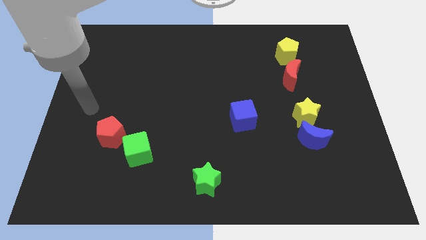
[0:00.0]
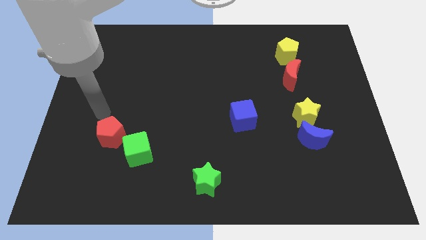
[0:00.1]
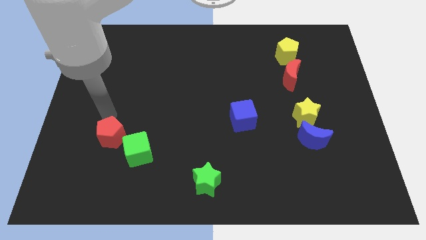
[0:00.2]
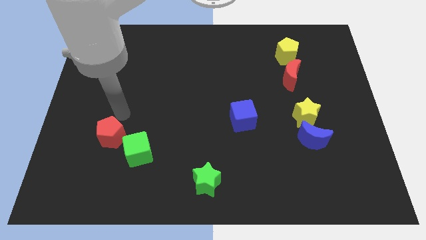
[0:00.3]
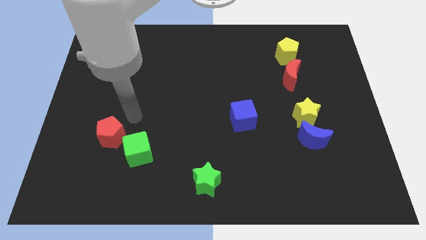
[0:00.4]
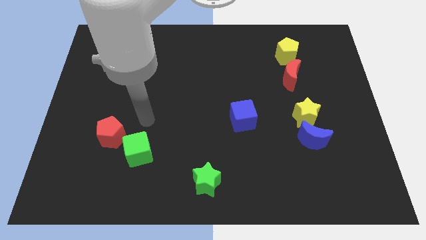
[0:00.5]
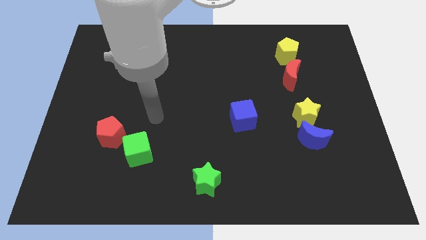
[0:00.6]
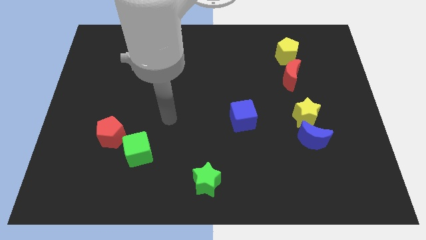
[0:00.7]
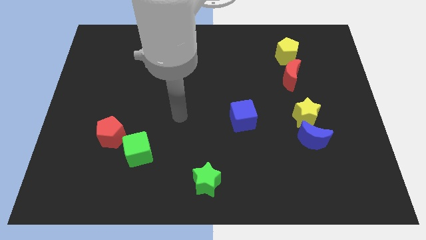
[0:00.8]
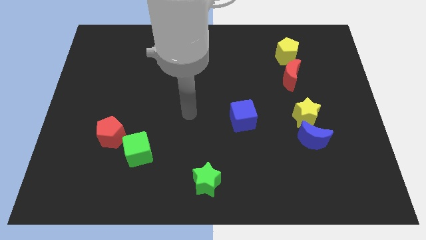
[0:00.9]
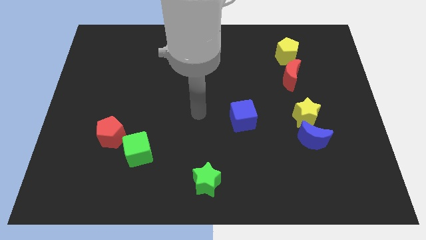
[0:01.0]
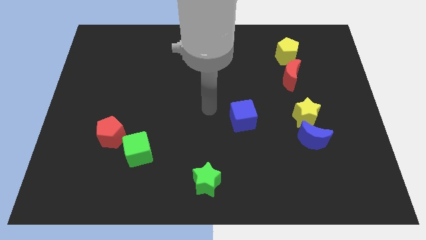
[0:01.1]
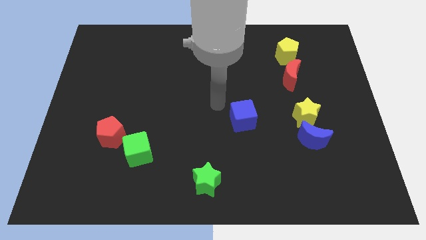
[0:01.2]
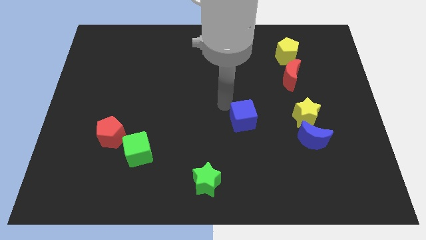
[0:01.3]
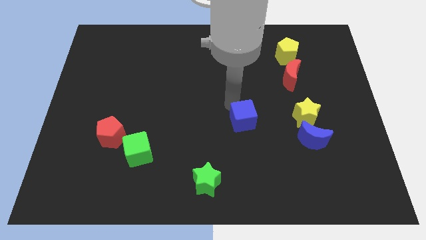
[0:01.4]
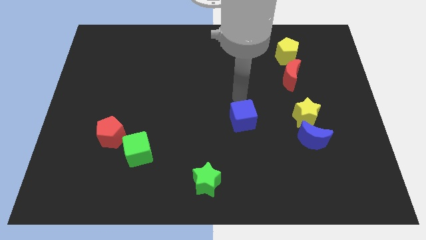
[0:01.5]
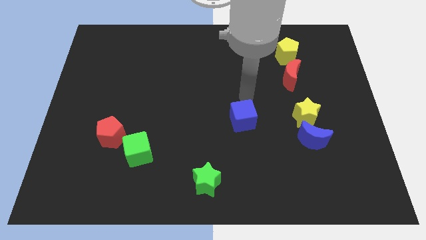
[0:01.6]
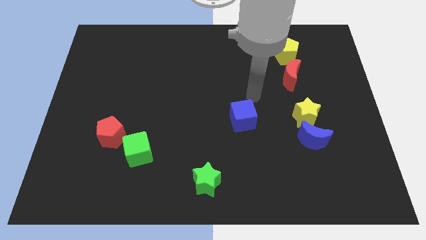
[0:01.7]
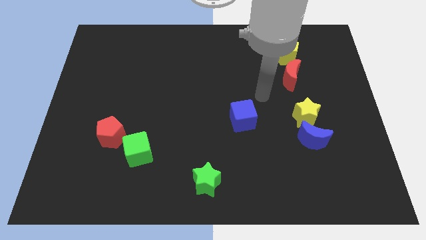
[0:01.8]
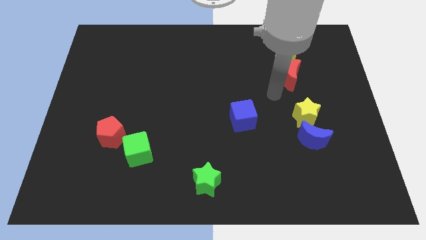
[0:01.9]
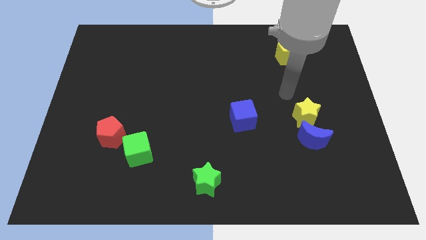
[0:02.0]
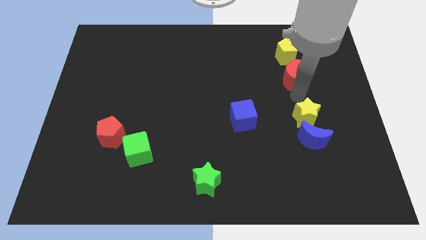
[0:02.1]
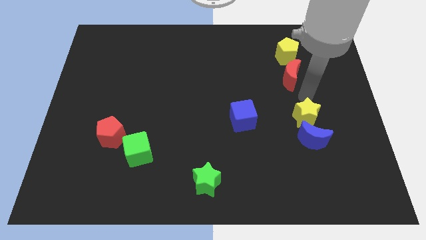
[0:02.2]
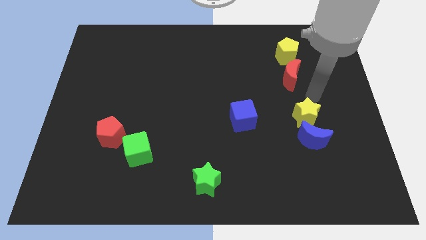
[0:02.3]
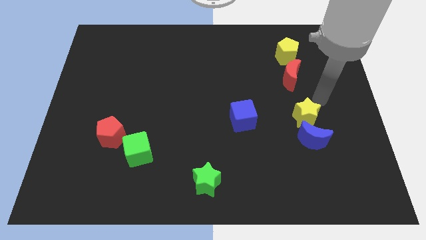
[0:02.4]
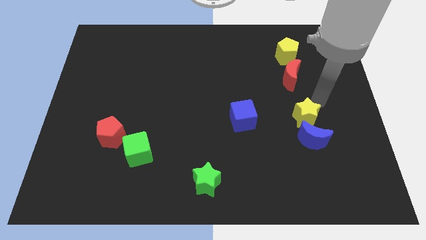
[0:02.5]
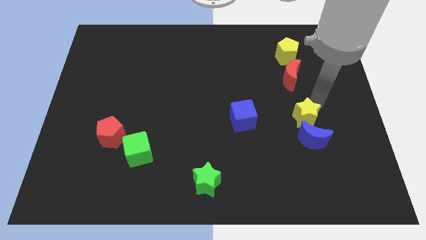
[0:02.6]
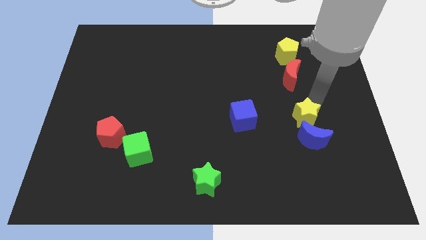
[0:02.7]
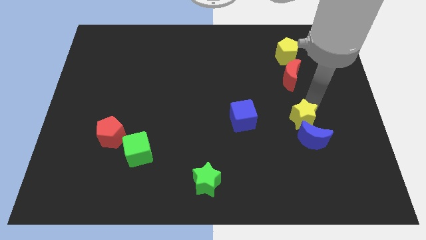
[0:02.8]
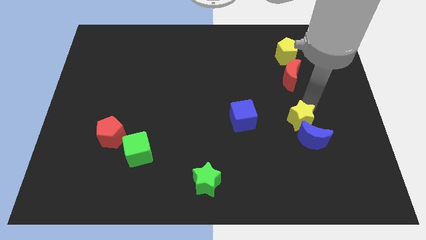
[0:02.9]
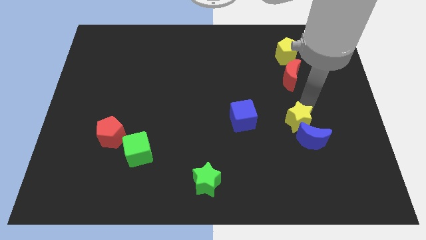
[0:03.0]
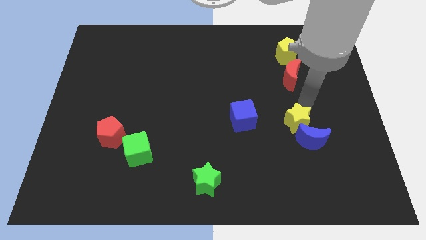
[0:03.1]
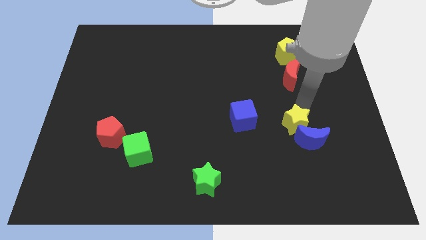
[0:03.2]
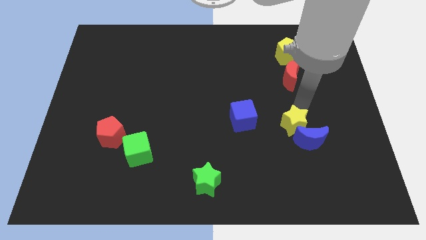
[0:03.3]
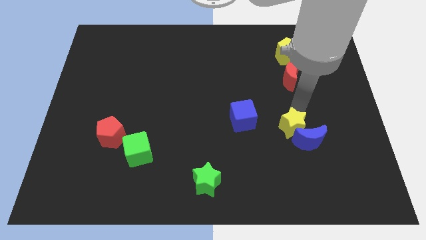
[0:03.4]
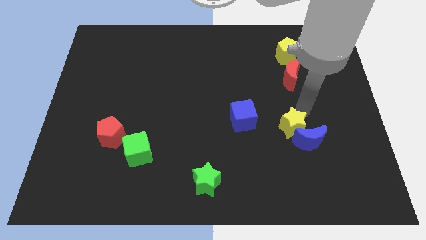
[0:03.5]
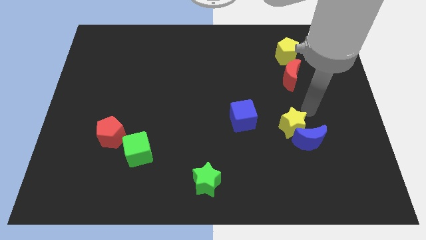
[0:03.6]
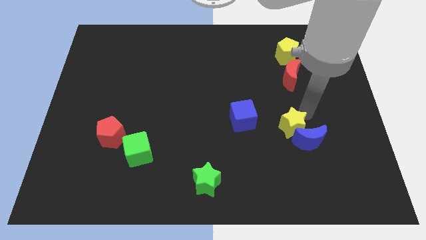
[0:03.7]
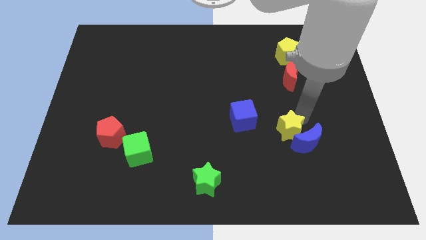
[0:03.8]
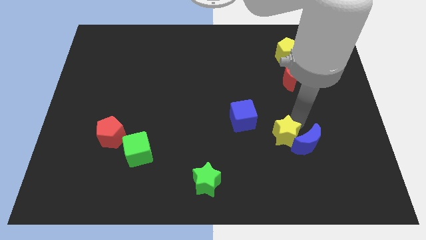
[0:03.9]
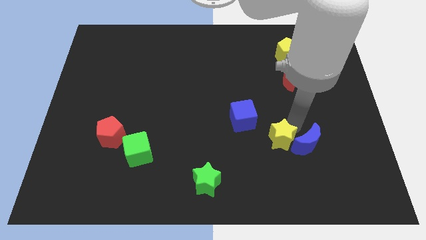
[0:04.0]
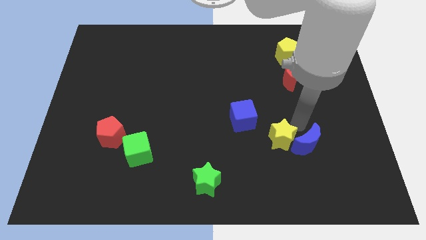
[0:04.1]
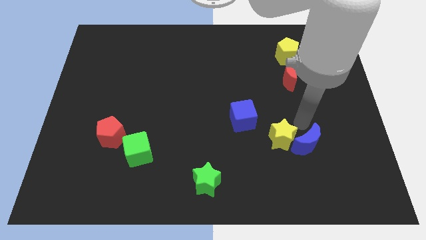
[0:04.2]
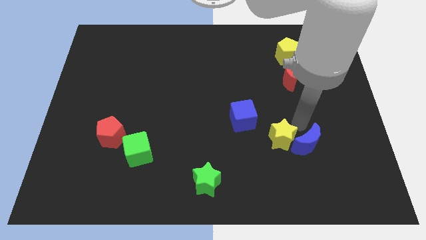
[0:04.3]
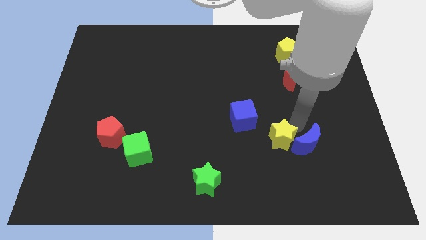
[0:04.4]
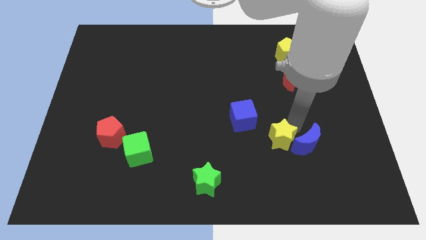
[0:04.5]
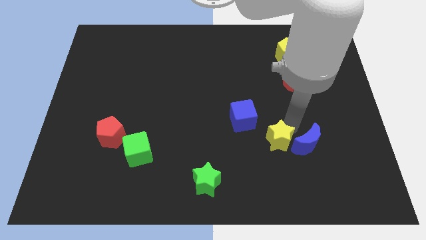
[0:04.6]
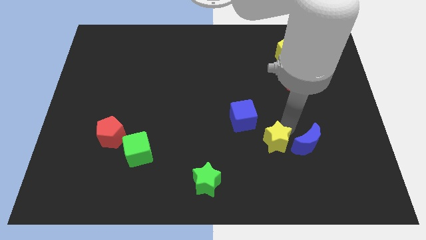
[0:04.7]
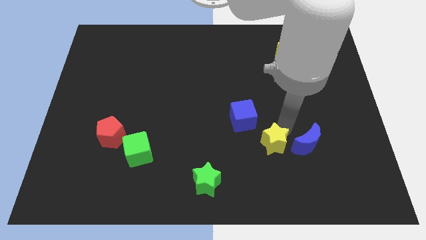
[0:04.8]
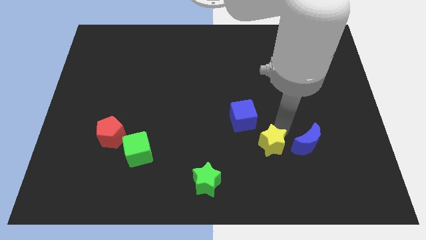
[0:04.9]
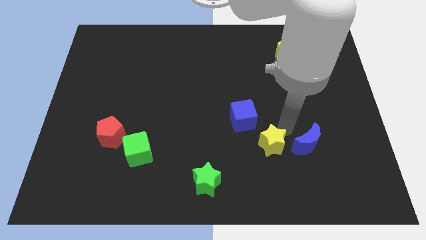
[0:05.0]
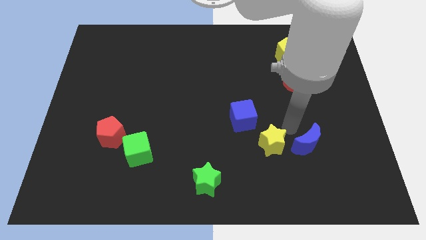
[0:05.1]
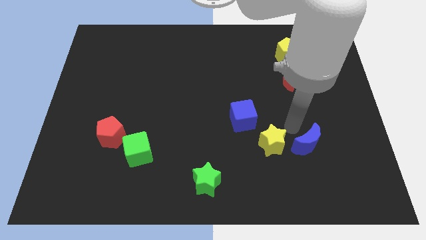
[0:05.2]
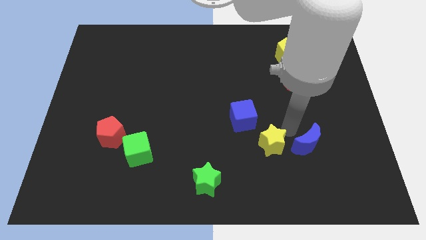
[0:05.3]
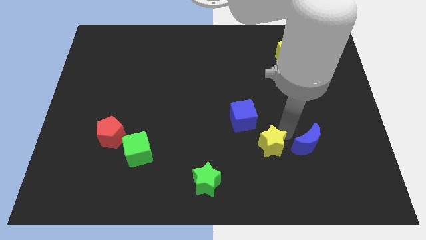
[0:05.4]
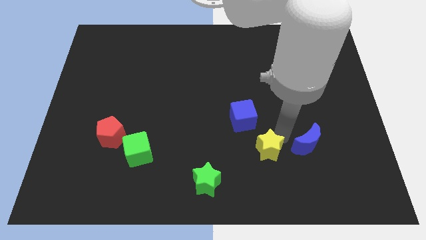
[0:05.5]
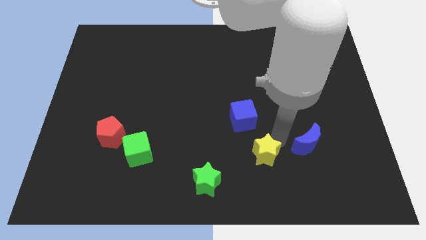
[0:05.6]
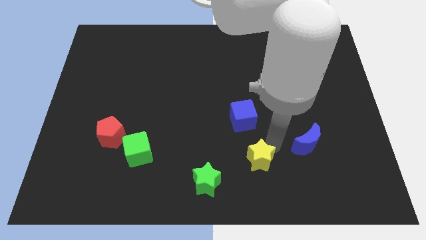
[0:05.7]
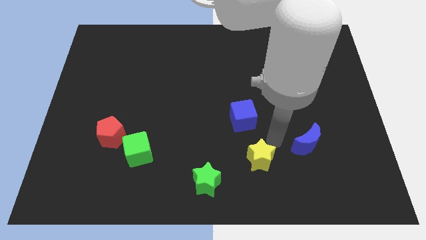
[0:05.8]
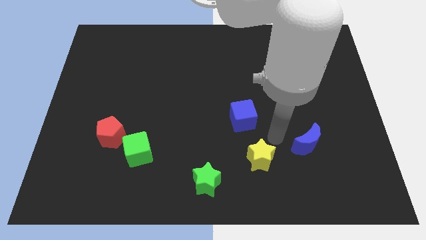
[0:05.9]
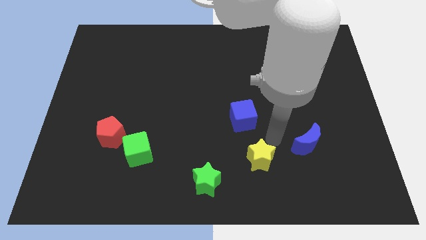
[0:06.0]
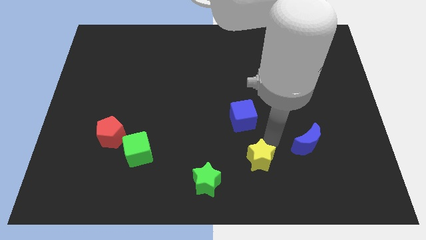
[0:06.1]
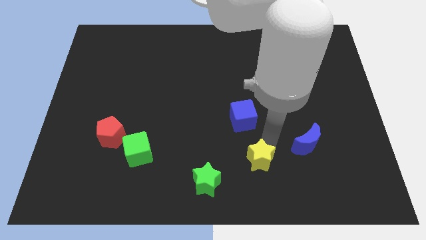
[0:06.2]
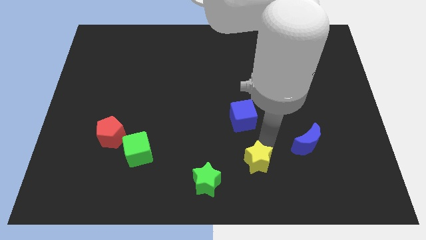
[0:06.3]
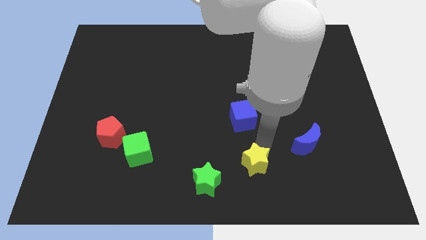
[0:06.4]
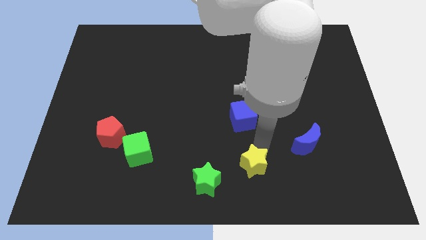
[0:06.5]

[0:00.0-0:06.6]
move the yellow star to the bottom
